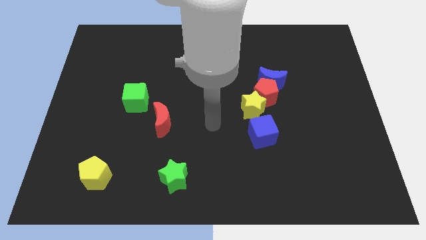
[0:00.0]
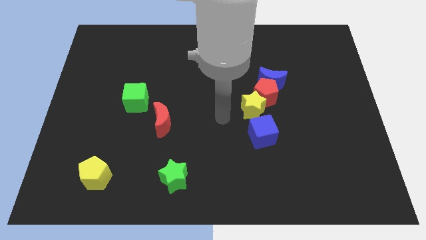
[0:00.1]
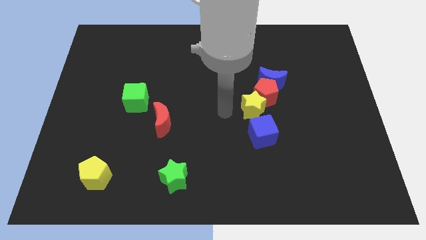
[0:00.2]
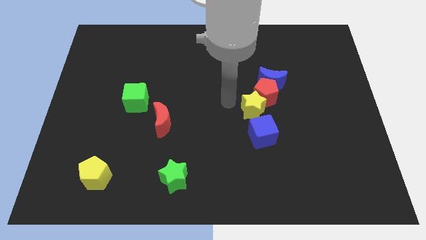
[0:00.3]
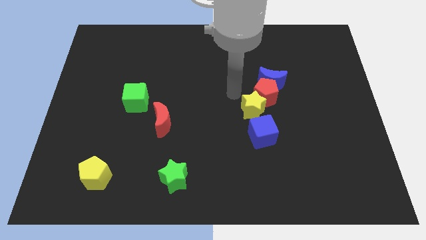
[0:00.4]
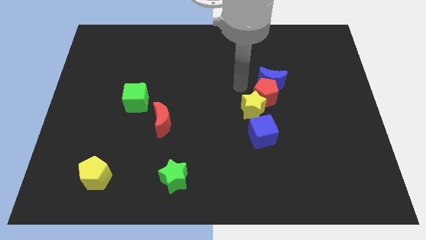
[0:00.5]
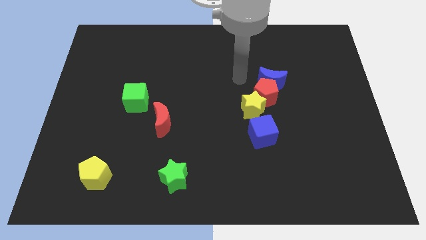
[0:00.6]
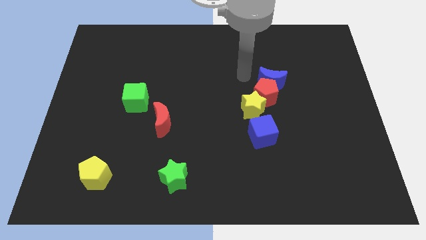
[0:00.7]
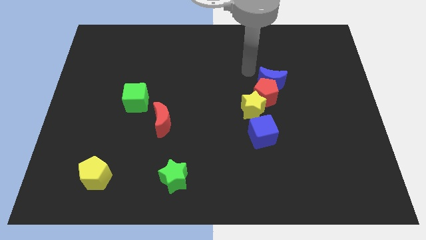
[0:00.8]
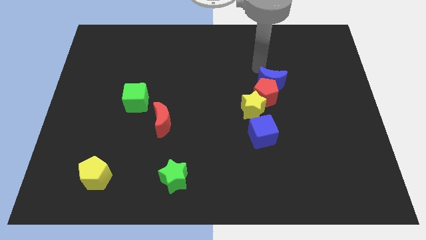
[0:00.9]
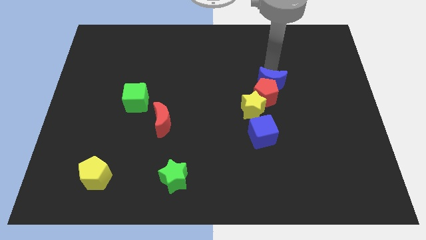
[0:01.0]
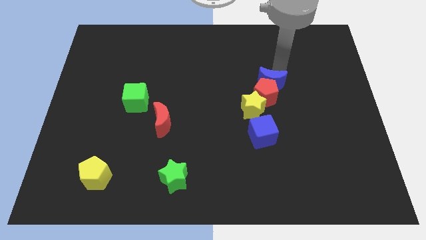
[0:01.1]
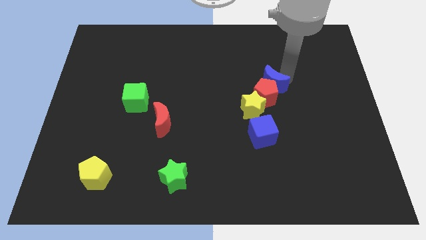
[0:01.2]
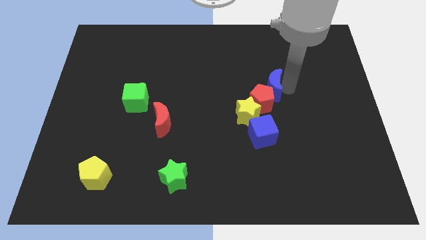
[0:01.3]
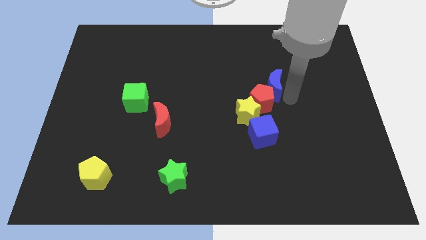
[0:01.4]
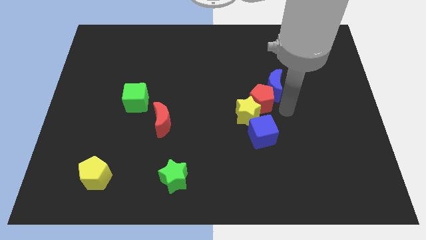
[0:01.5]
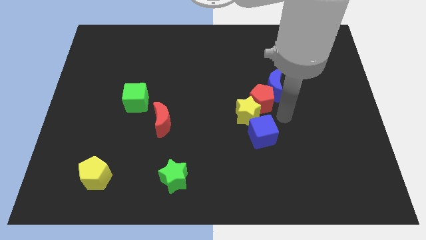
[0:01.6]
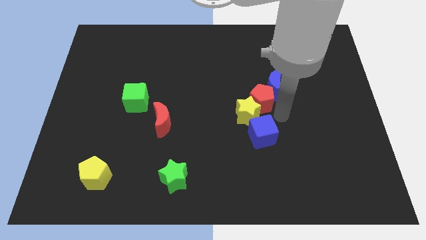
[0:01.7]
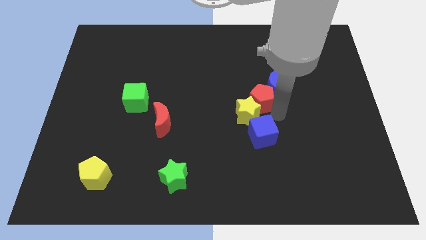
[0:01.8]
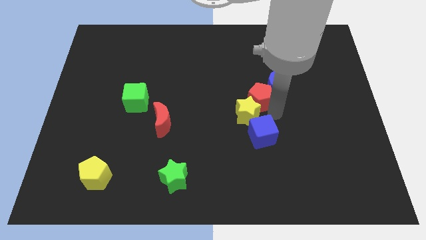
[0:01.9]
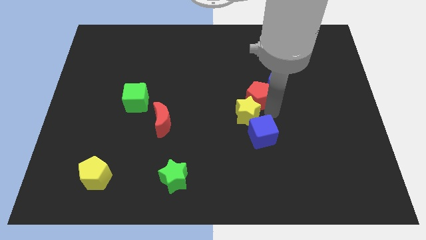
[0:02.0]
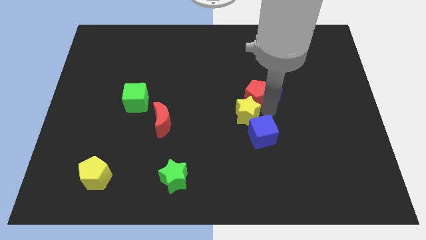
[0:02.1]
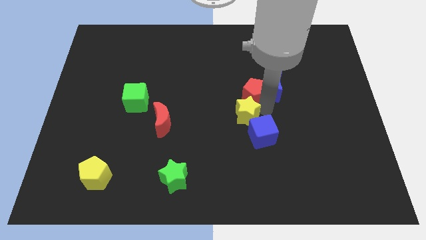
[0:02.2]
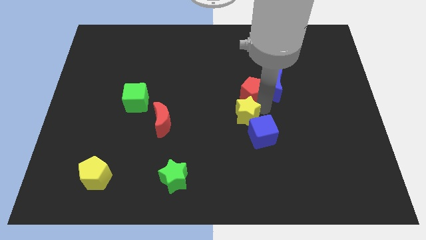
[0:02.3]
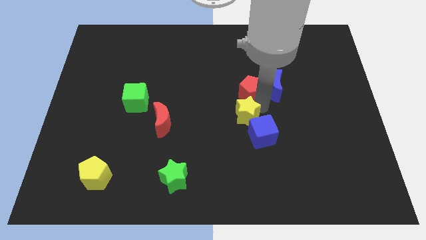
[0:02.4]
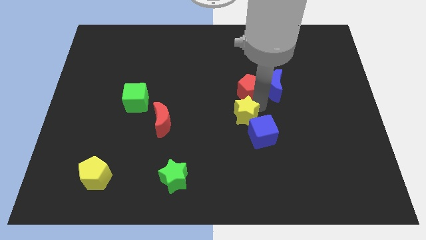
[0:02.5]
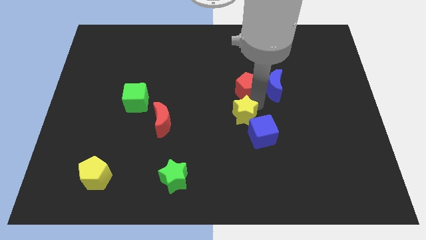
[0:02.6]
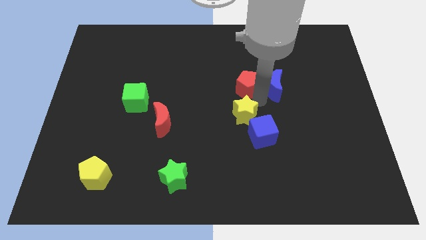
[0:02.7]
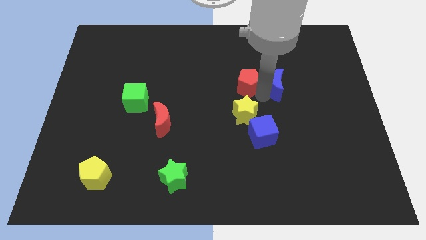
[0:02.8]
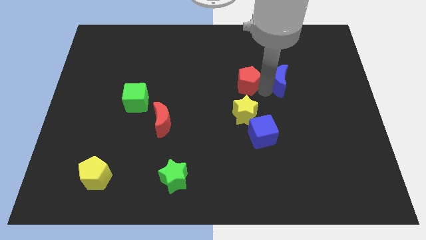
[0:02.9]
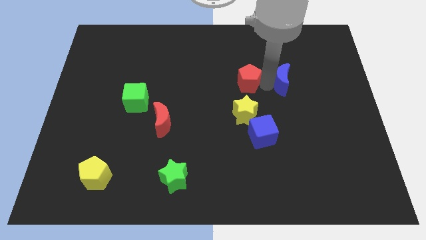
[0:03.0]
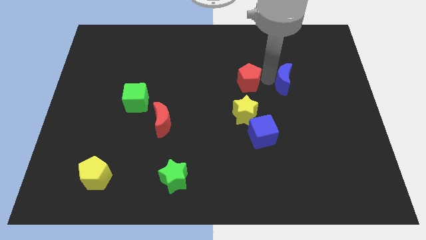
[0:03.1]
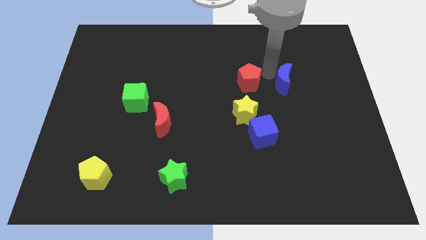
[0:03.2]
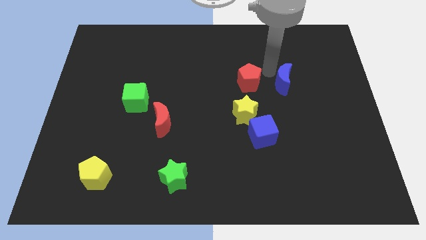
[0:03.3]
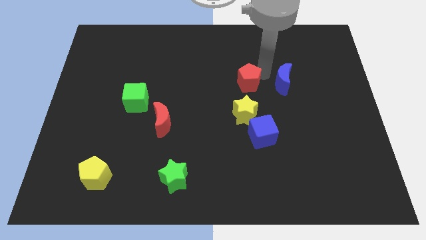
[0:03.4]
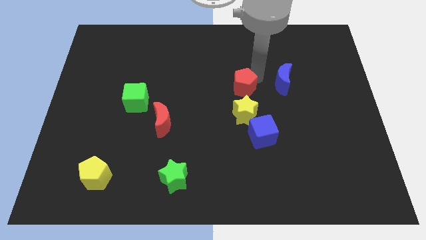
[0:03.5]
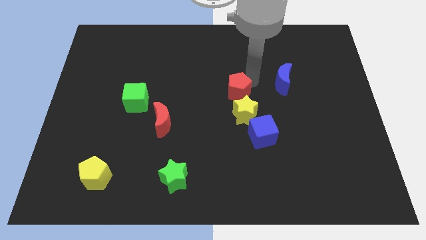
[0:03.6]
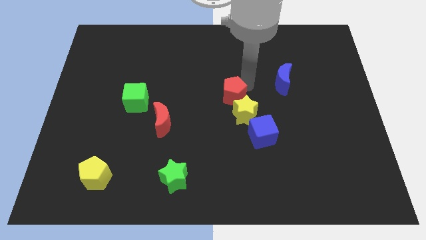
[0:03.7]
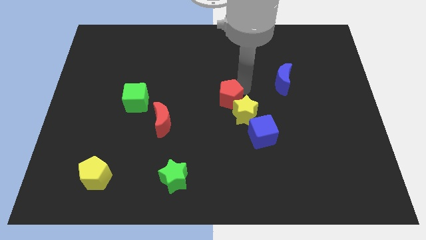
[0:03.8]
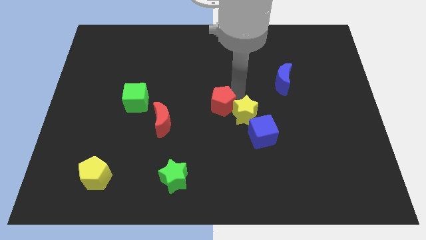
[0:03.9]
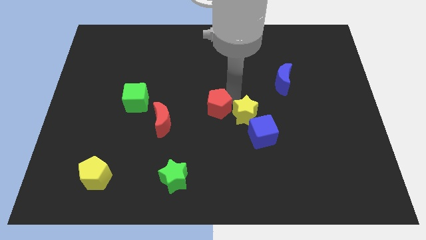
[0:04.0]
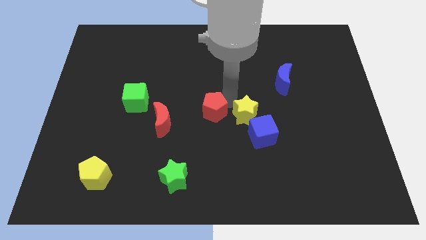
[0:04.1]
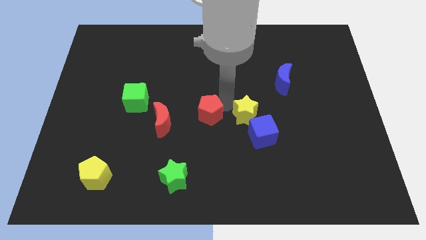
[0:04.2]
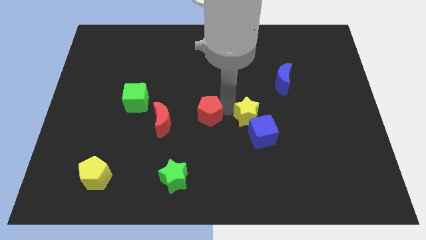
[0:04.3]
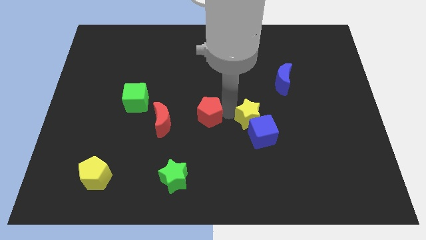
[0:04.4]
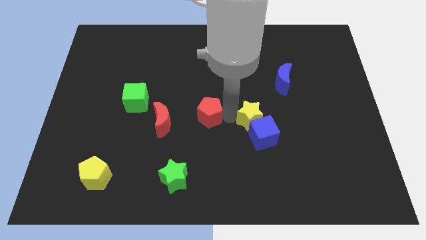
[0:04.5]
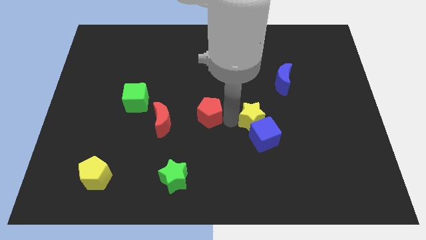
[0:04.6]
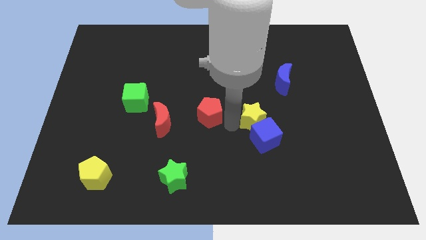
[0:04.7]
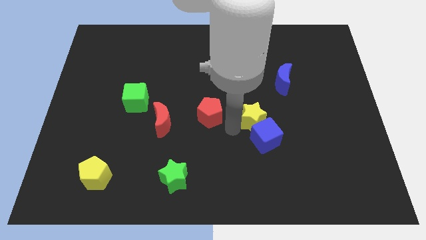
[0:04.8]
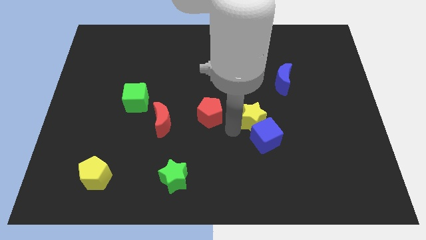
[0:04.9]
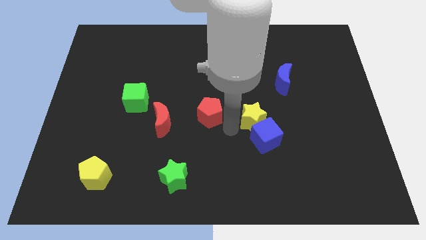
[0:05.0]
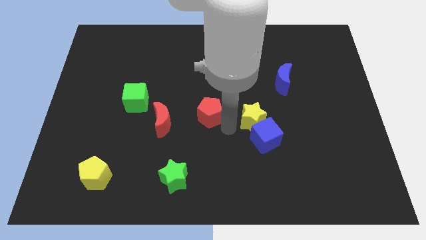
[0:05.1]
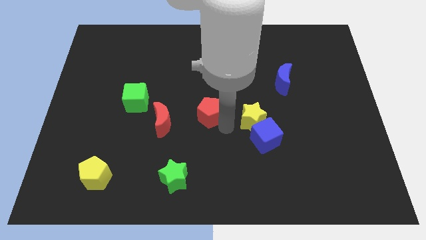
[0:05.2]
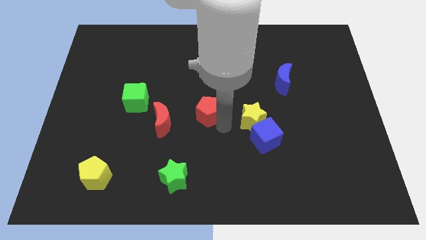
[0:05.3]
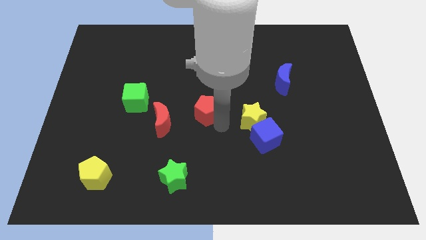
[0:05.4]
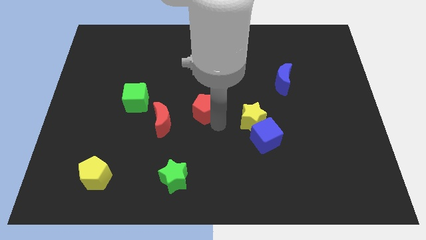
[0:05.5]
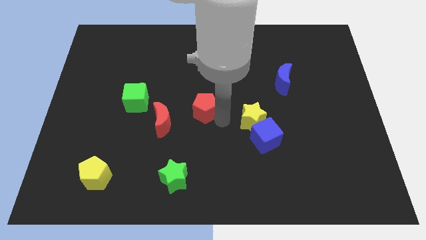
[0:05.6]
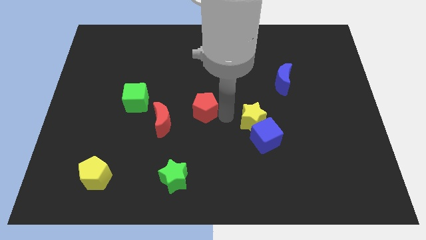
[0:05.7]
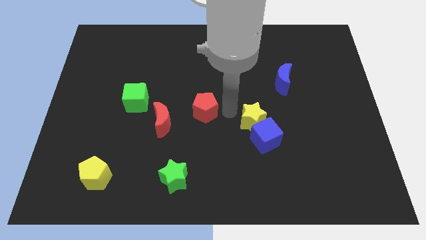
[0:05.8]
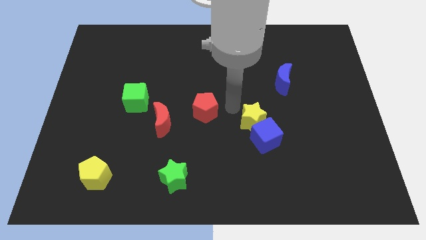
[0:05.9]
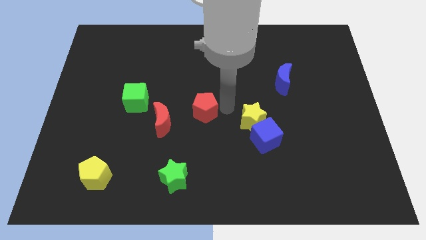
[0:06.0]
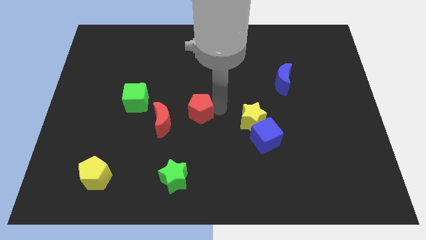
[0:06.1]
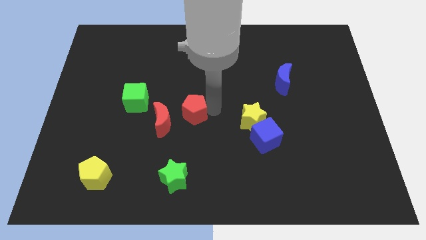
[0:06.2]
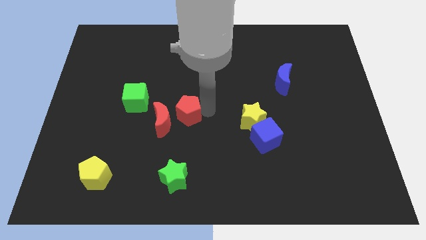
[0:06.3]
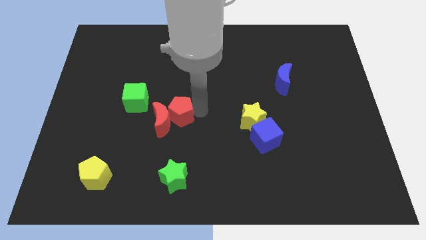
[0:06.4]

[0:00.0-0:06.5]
slide the red pentagon towards the red moon
